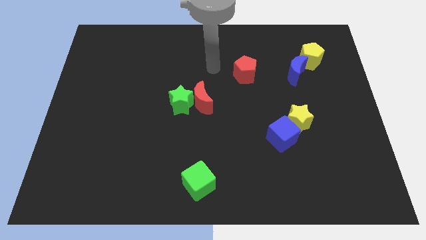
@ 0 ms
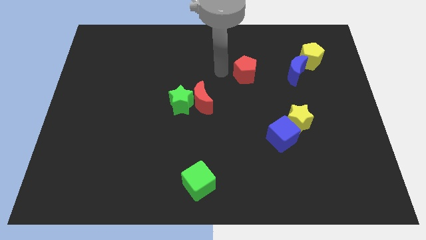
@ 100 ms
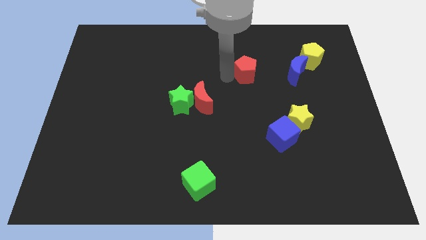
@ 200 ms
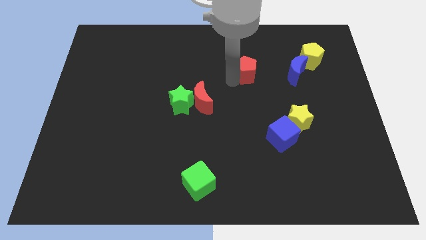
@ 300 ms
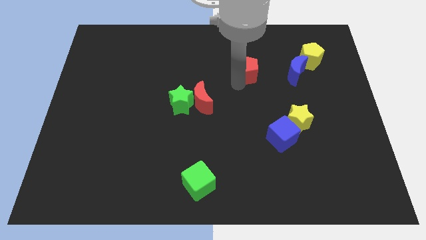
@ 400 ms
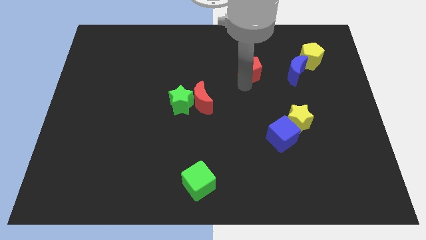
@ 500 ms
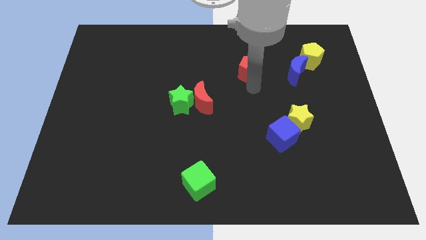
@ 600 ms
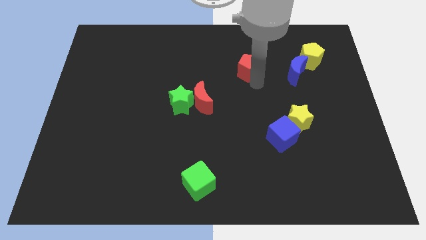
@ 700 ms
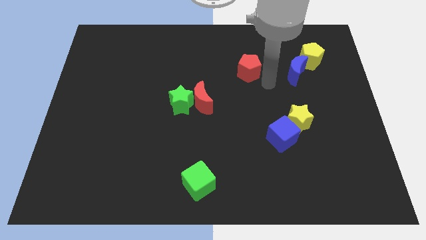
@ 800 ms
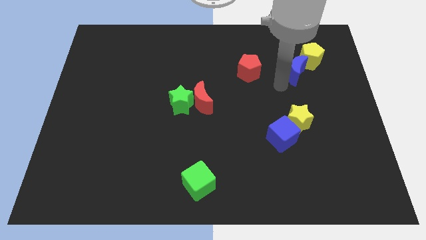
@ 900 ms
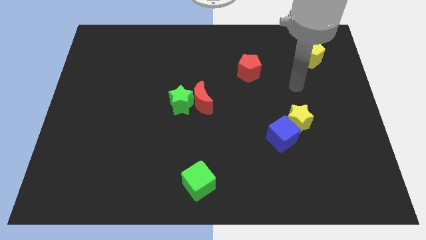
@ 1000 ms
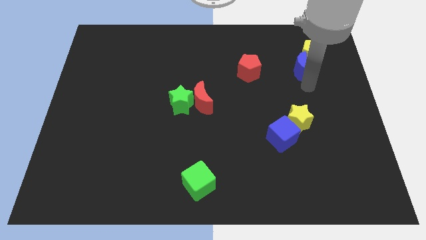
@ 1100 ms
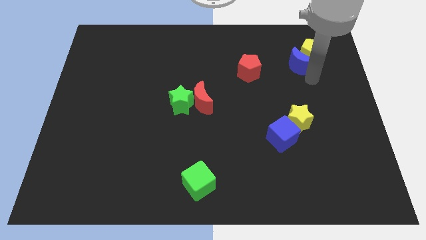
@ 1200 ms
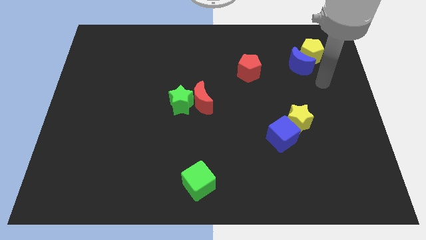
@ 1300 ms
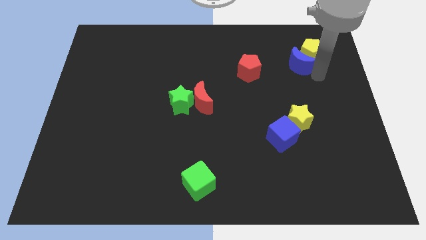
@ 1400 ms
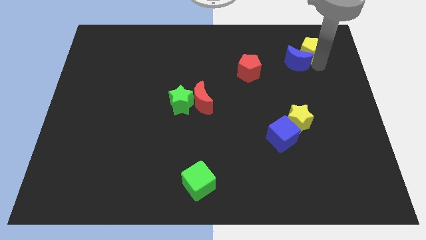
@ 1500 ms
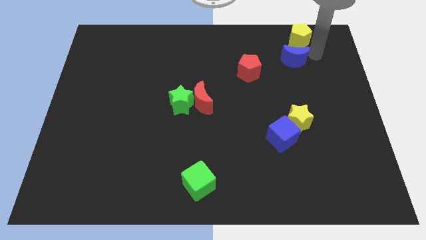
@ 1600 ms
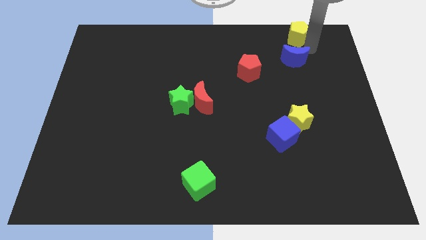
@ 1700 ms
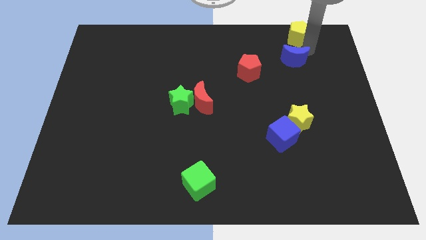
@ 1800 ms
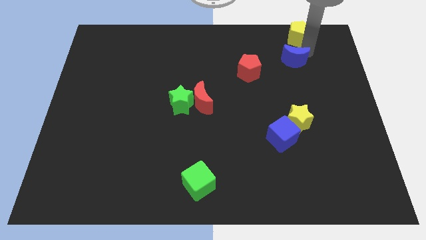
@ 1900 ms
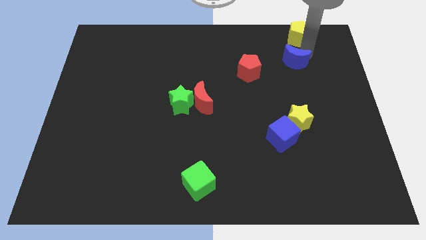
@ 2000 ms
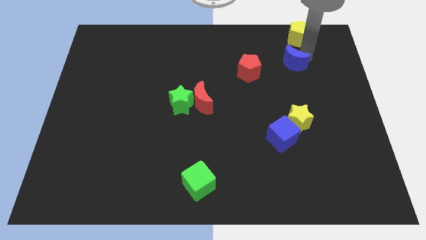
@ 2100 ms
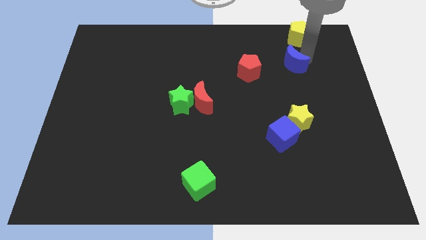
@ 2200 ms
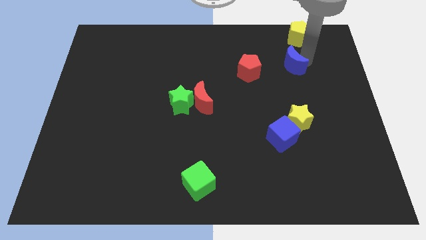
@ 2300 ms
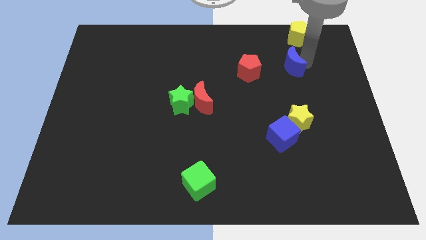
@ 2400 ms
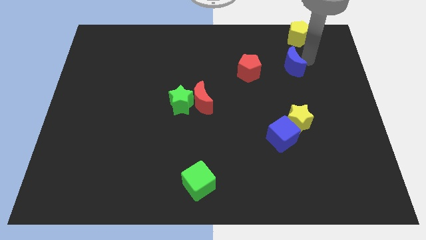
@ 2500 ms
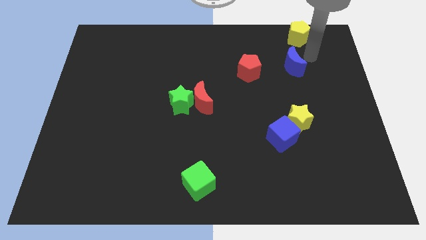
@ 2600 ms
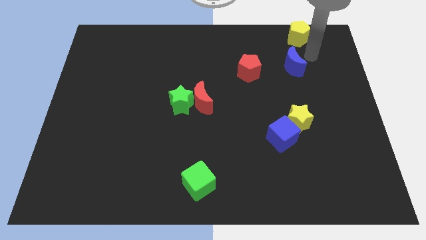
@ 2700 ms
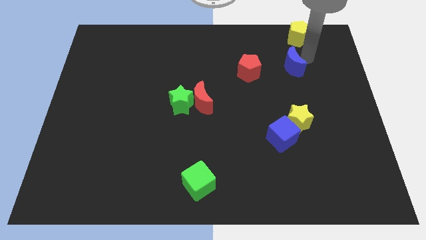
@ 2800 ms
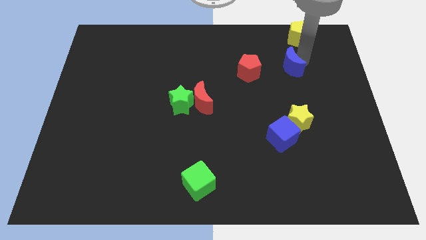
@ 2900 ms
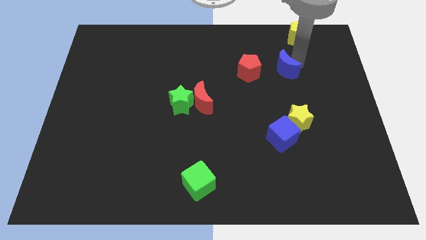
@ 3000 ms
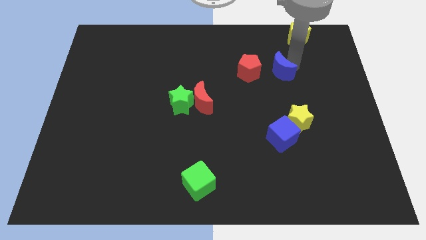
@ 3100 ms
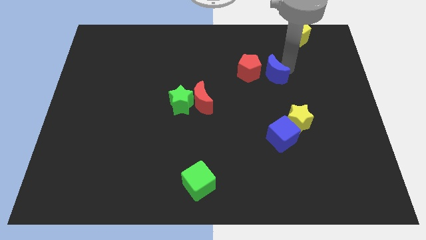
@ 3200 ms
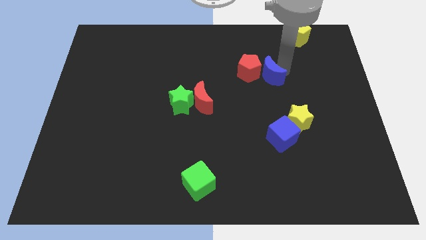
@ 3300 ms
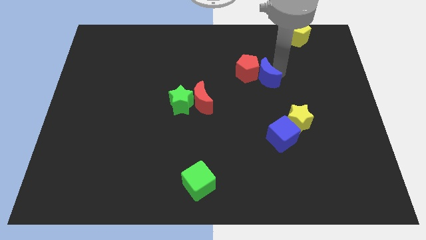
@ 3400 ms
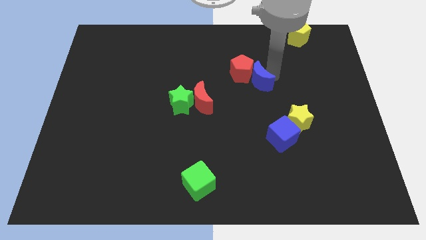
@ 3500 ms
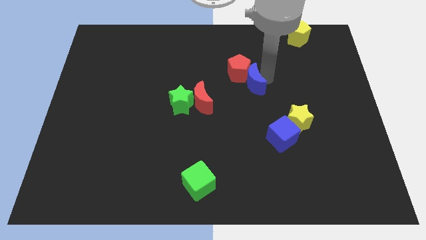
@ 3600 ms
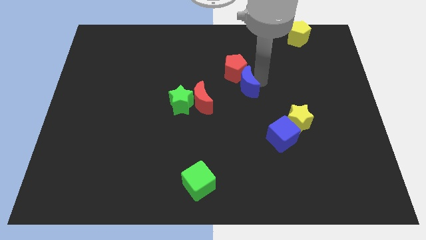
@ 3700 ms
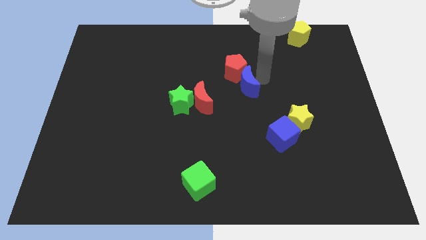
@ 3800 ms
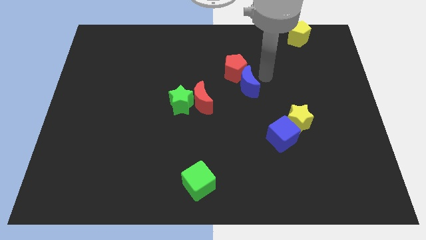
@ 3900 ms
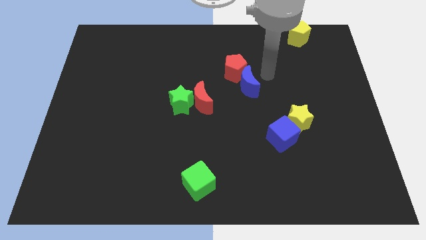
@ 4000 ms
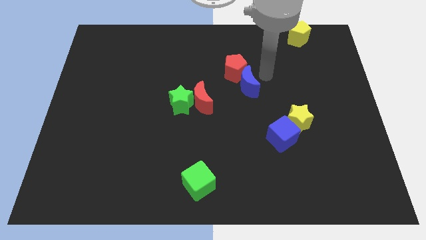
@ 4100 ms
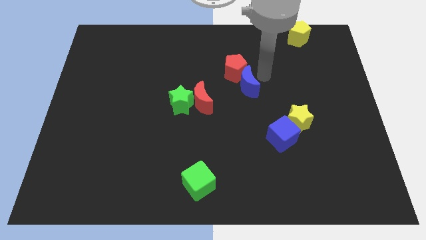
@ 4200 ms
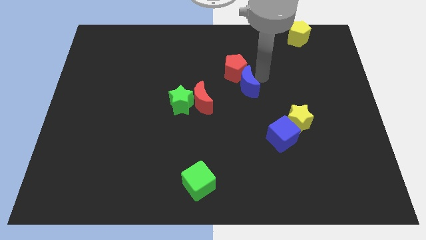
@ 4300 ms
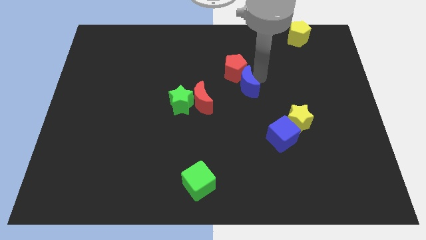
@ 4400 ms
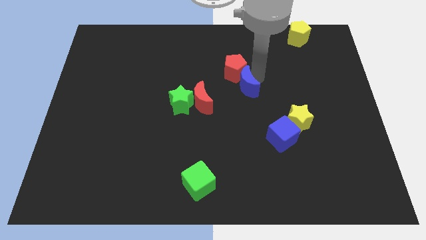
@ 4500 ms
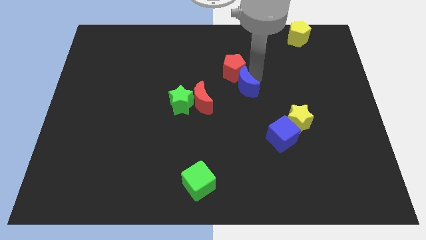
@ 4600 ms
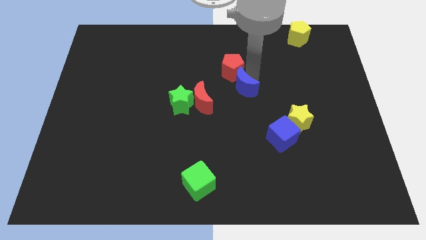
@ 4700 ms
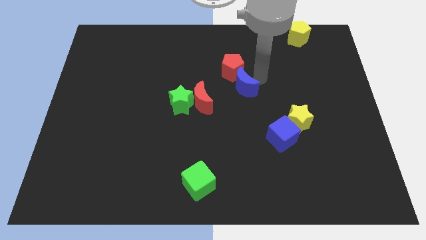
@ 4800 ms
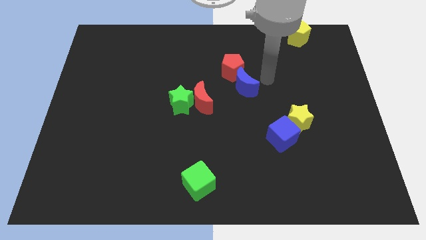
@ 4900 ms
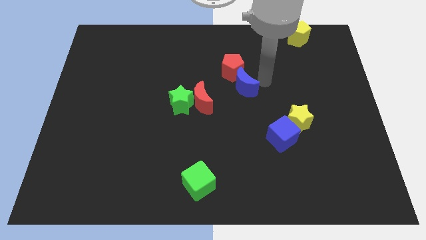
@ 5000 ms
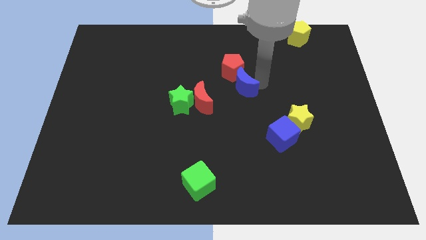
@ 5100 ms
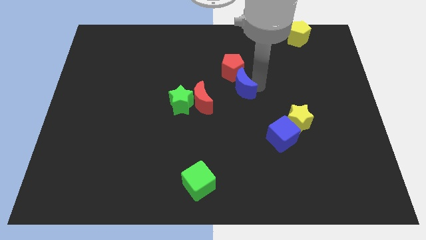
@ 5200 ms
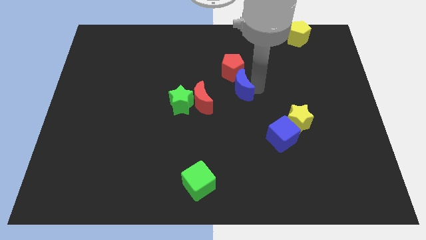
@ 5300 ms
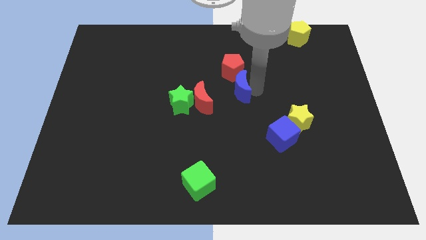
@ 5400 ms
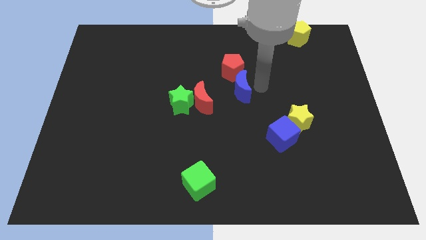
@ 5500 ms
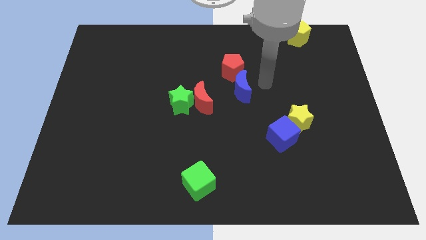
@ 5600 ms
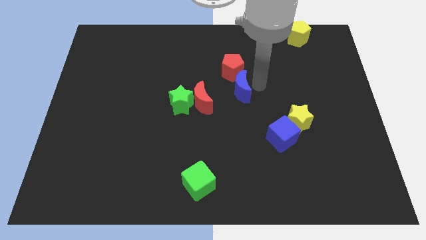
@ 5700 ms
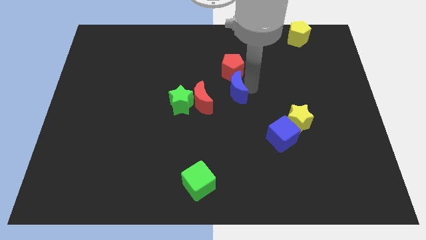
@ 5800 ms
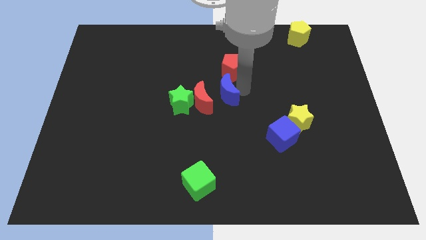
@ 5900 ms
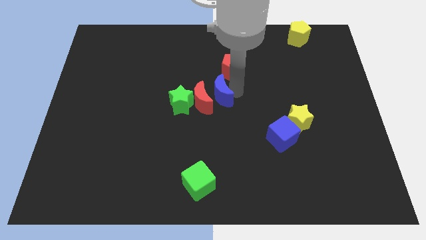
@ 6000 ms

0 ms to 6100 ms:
push the blue moon next to the red moon

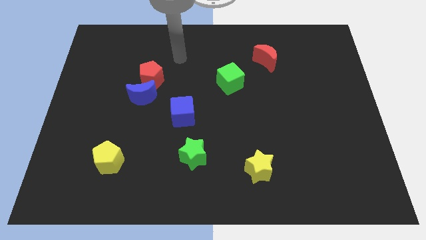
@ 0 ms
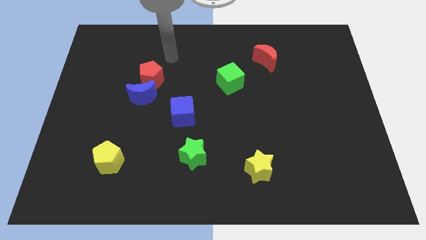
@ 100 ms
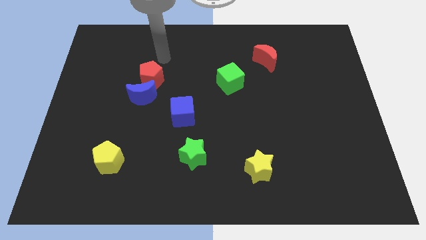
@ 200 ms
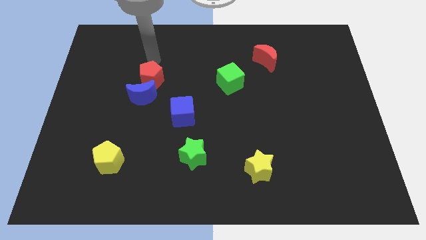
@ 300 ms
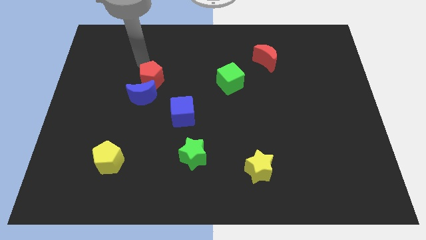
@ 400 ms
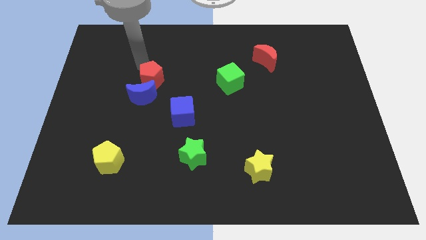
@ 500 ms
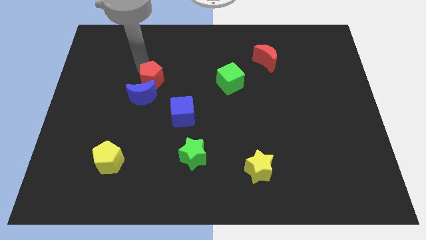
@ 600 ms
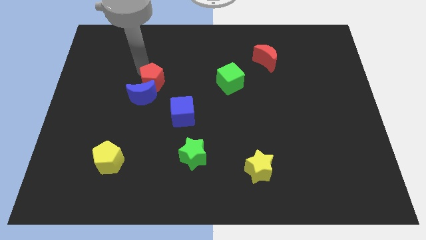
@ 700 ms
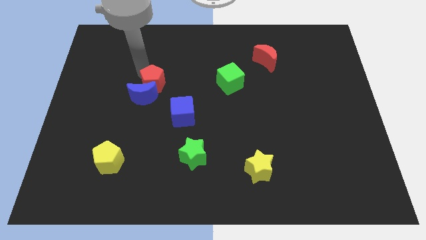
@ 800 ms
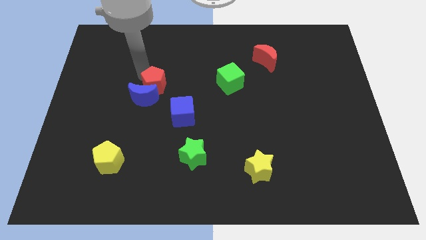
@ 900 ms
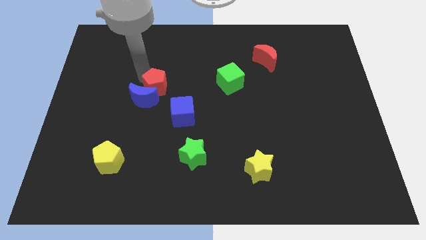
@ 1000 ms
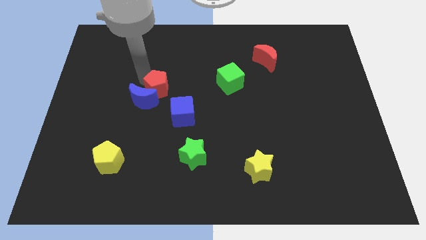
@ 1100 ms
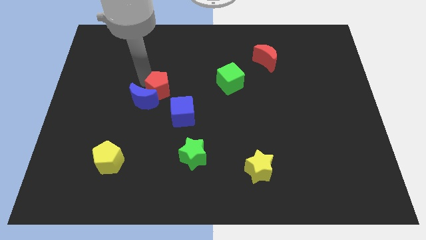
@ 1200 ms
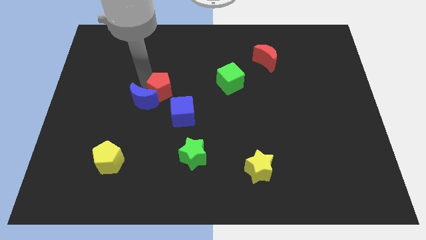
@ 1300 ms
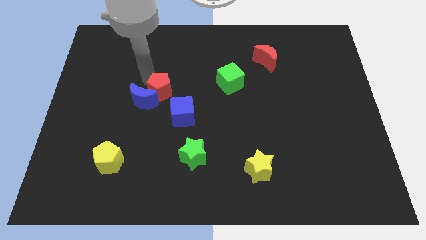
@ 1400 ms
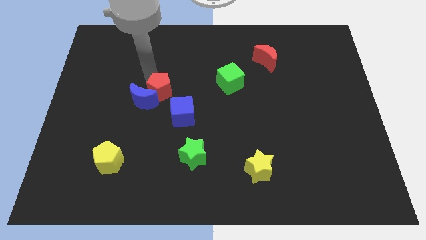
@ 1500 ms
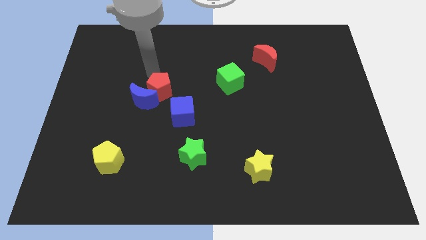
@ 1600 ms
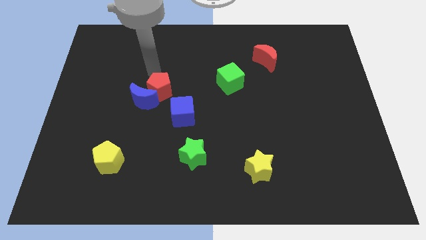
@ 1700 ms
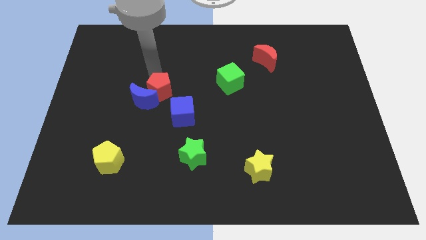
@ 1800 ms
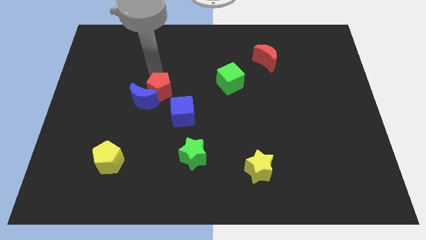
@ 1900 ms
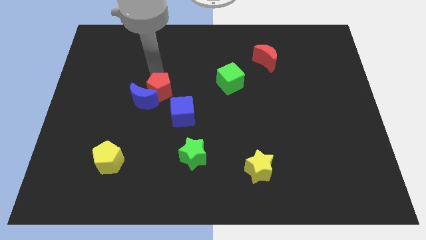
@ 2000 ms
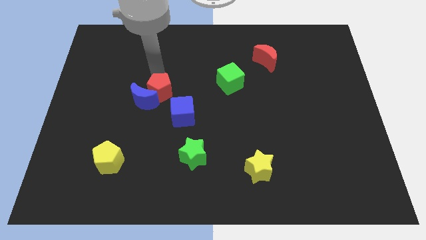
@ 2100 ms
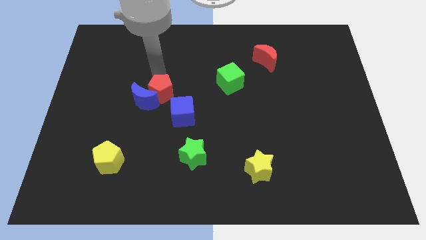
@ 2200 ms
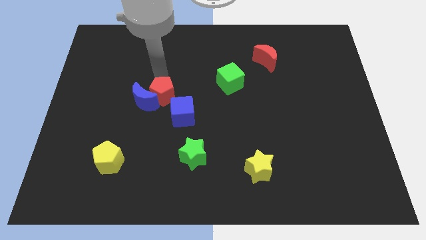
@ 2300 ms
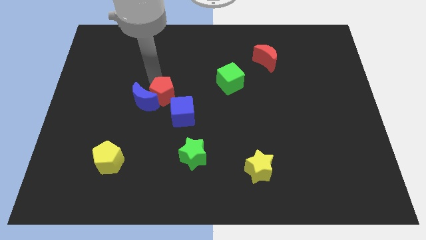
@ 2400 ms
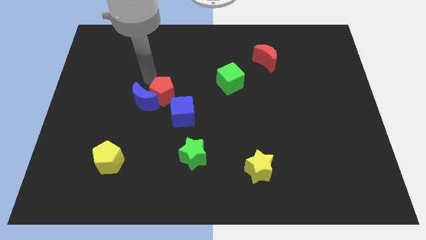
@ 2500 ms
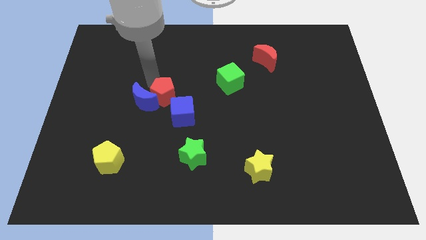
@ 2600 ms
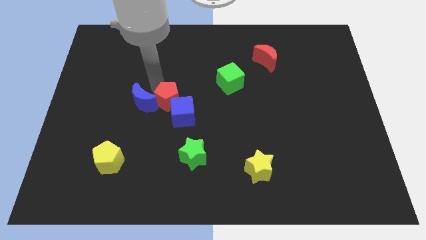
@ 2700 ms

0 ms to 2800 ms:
put the red pentagon towards the blue cube
